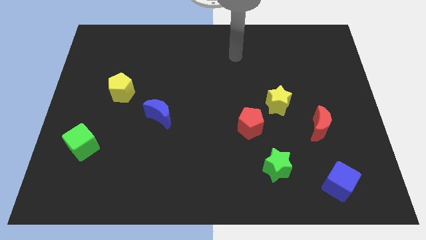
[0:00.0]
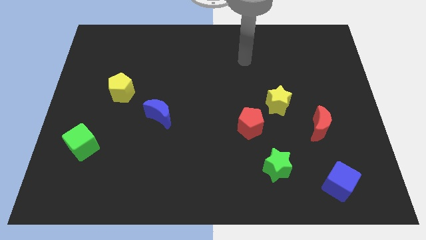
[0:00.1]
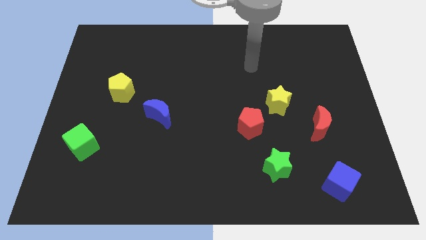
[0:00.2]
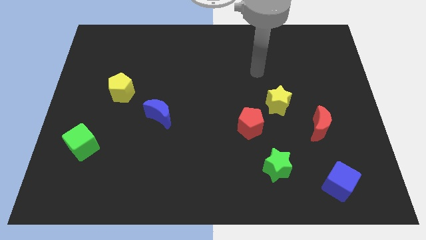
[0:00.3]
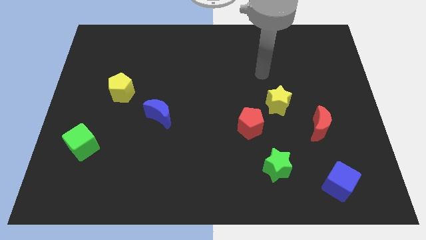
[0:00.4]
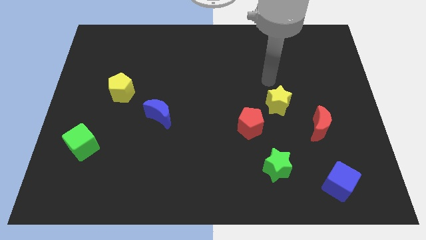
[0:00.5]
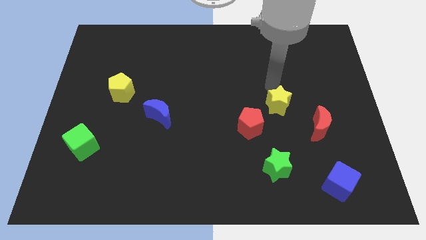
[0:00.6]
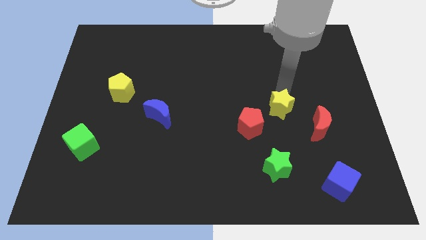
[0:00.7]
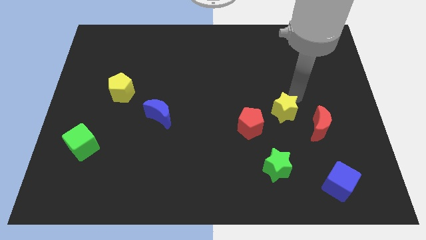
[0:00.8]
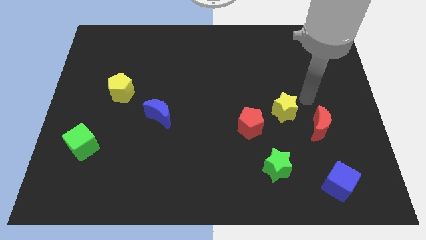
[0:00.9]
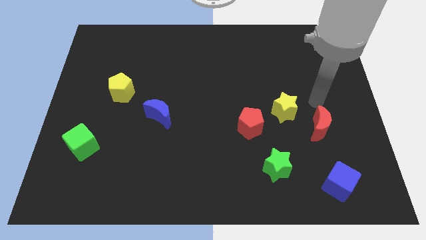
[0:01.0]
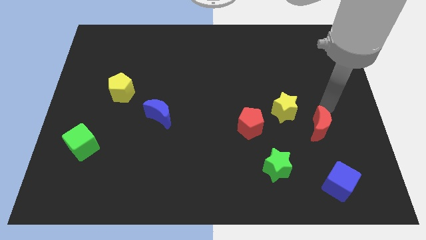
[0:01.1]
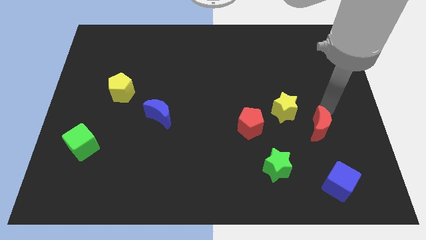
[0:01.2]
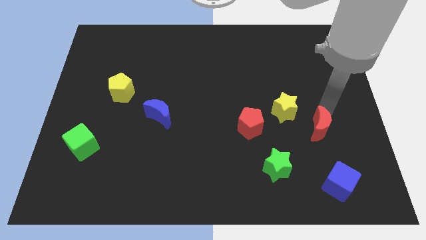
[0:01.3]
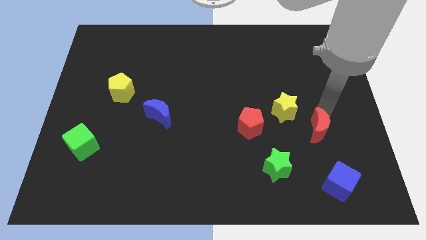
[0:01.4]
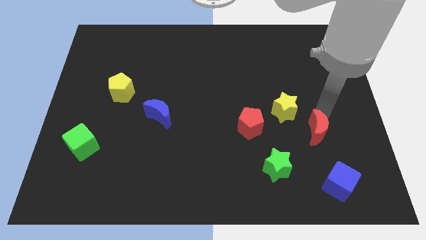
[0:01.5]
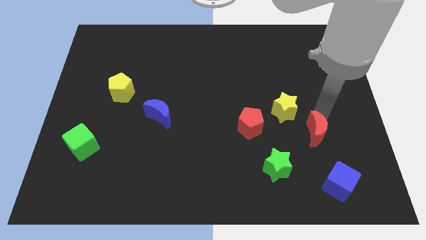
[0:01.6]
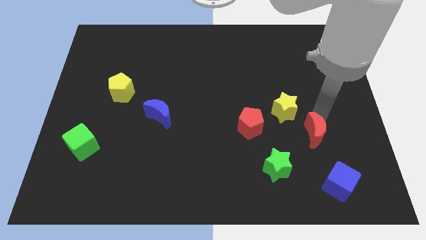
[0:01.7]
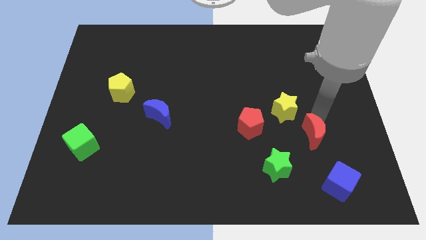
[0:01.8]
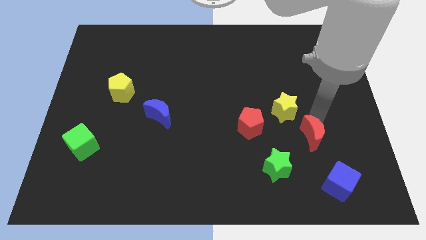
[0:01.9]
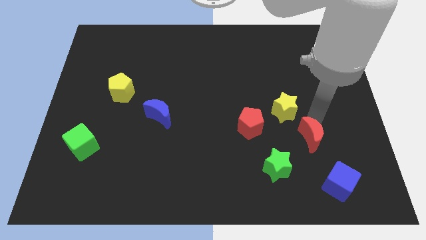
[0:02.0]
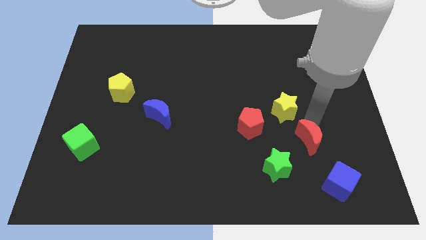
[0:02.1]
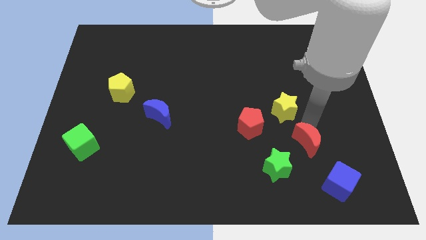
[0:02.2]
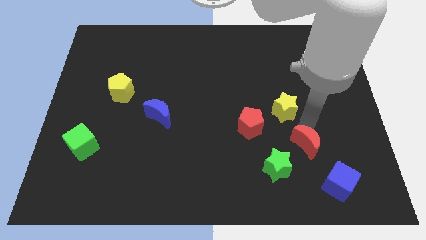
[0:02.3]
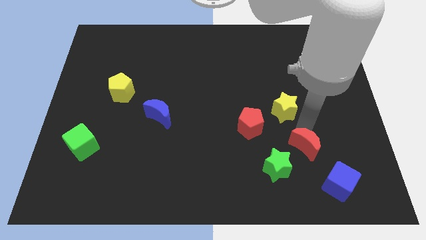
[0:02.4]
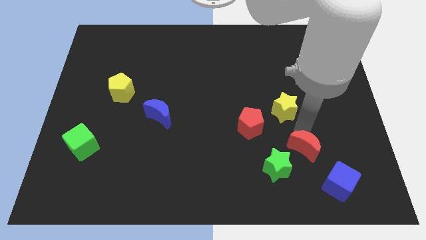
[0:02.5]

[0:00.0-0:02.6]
slightly slide the red moon downwards and to the left

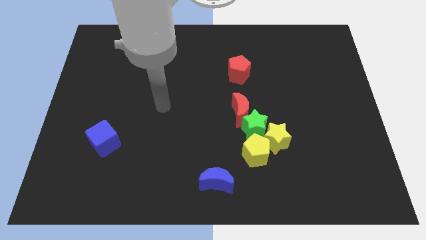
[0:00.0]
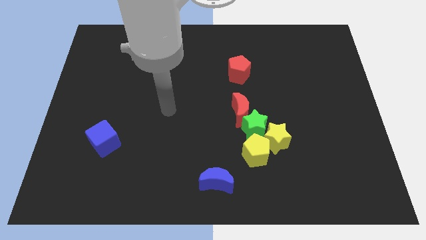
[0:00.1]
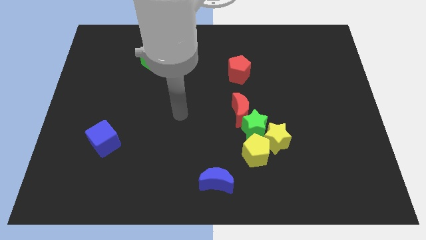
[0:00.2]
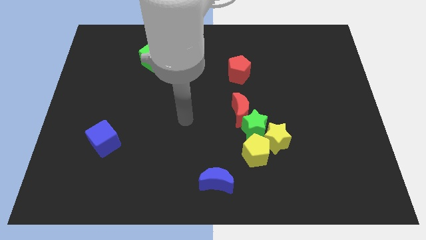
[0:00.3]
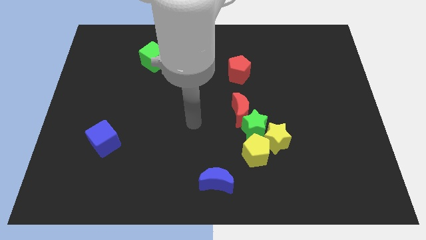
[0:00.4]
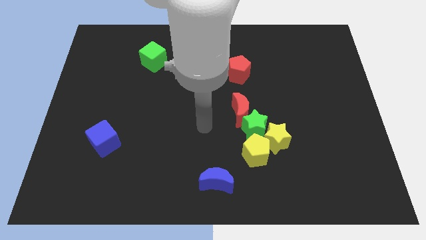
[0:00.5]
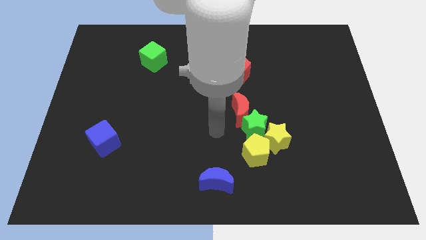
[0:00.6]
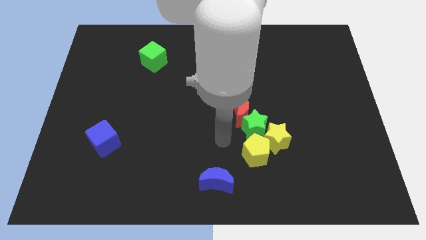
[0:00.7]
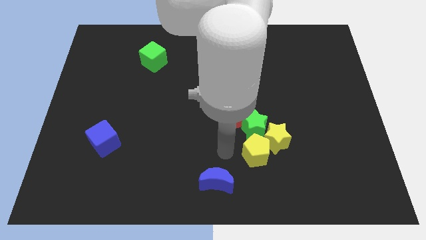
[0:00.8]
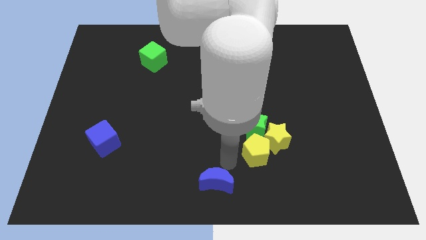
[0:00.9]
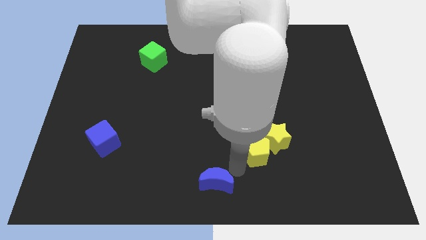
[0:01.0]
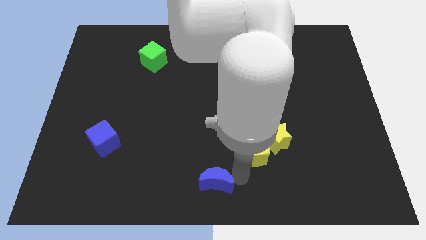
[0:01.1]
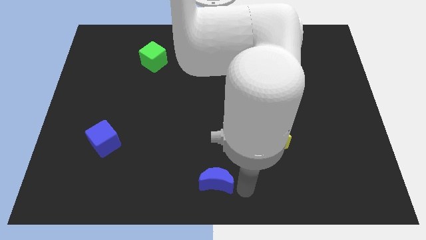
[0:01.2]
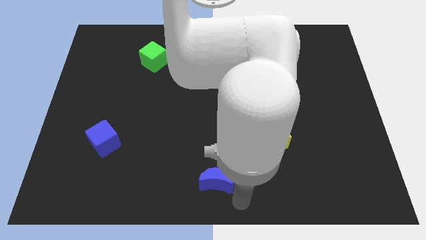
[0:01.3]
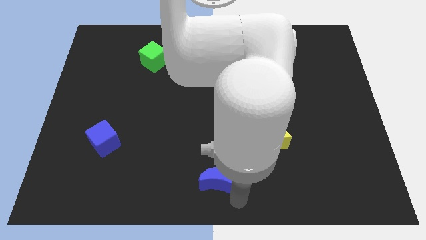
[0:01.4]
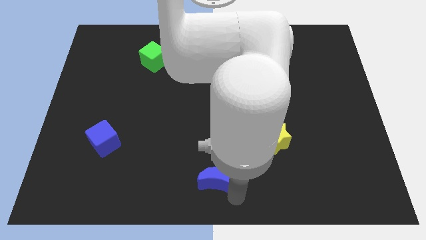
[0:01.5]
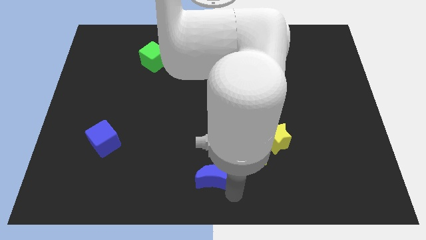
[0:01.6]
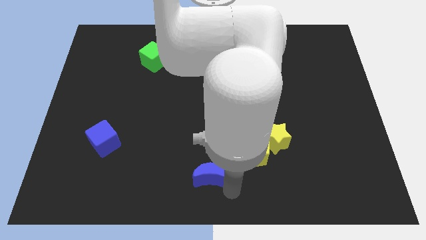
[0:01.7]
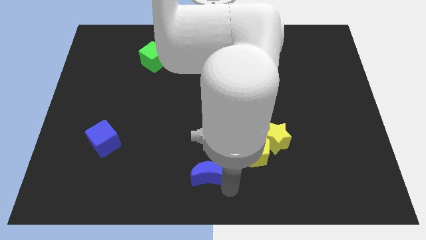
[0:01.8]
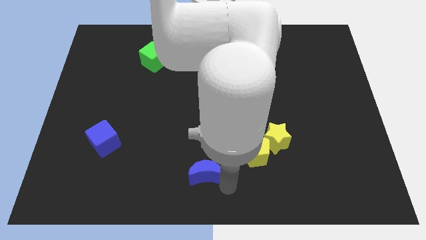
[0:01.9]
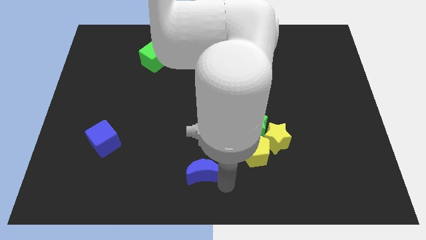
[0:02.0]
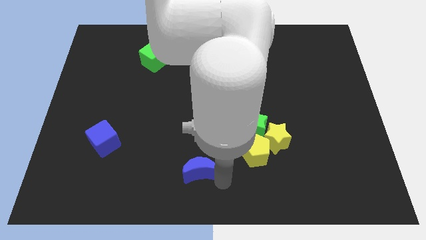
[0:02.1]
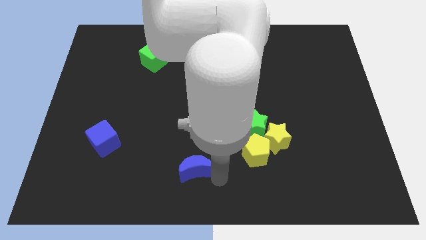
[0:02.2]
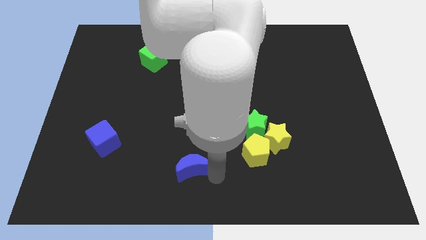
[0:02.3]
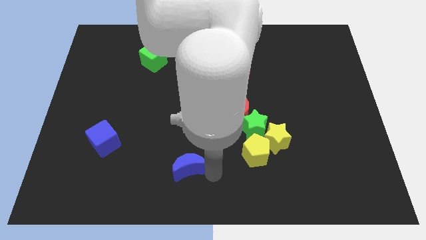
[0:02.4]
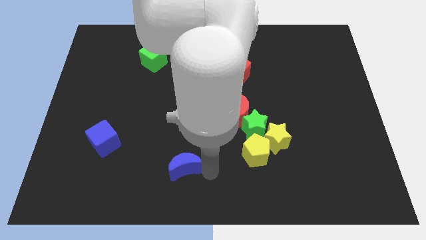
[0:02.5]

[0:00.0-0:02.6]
slightly slide the blue moon diagonally upwards and to the left

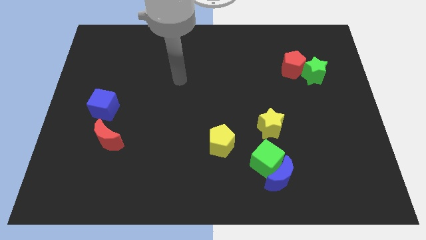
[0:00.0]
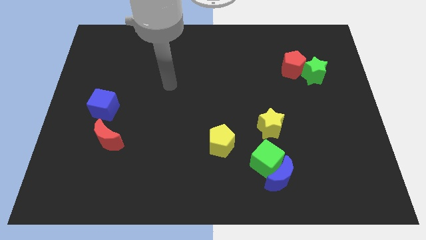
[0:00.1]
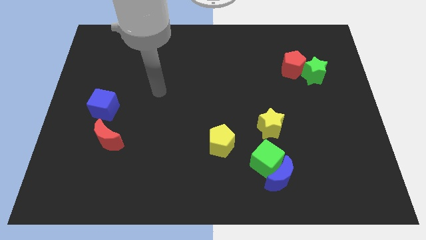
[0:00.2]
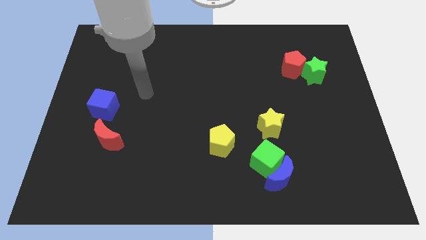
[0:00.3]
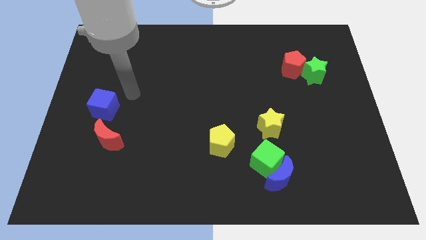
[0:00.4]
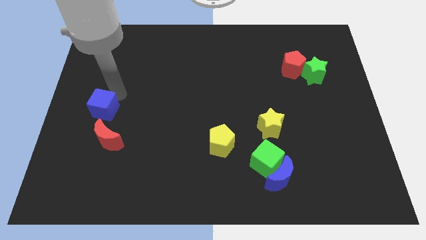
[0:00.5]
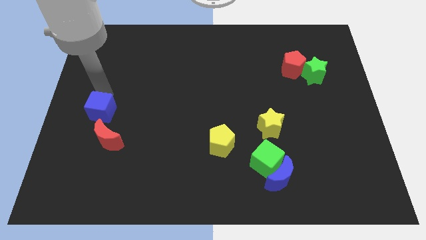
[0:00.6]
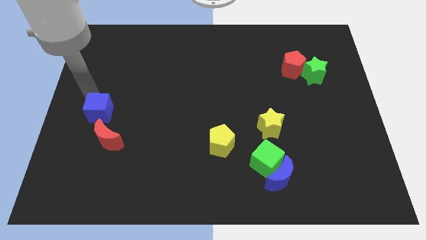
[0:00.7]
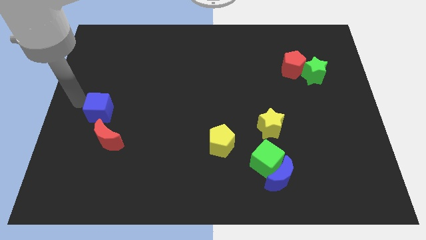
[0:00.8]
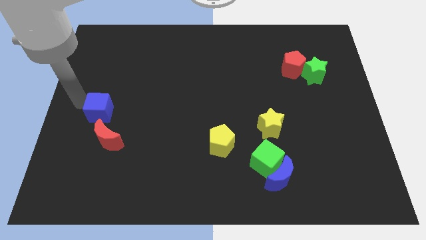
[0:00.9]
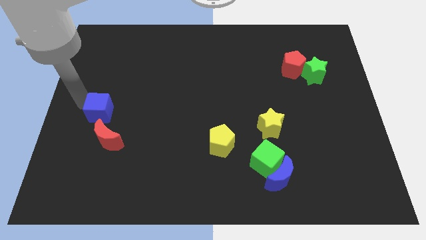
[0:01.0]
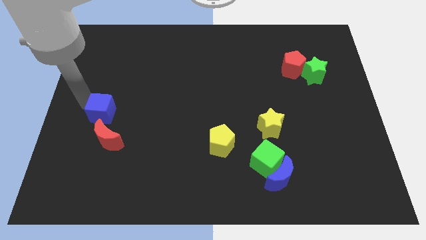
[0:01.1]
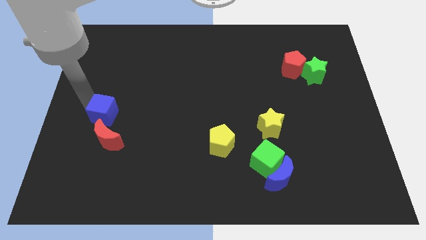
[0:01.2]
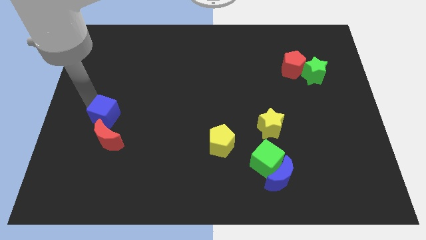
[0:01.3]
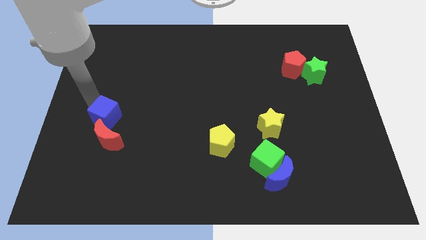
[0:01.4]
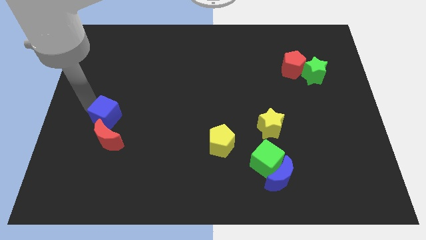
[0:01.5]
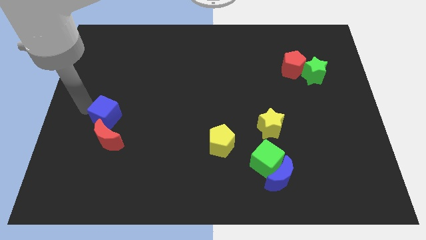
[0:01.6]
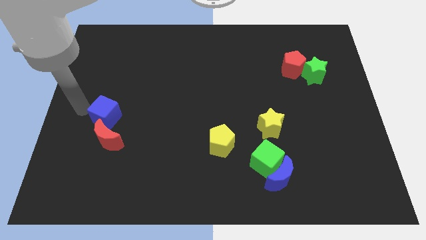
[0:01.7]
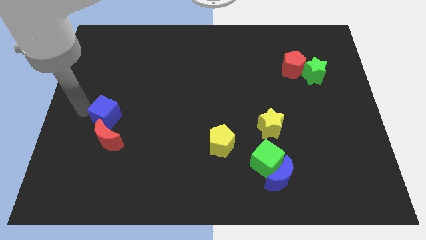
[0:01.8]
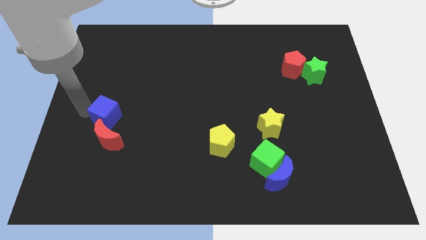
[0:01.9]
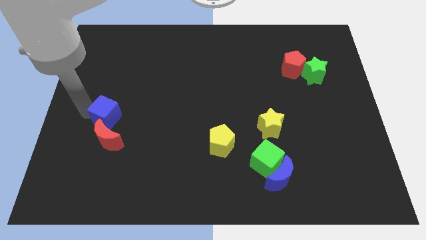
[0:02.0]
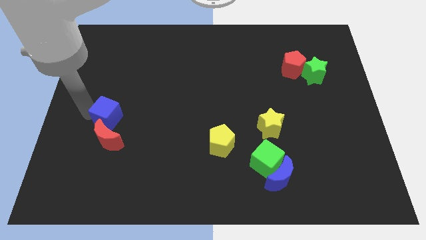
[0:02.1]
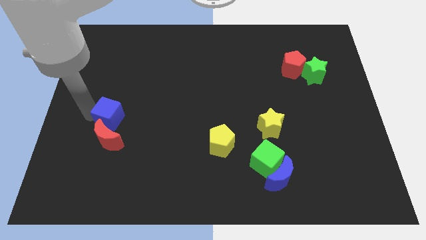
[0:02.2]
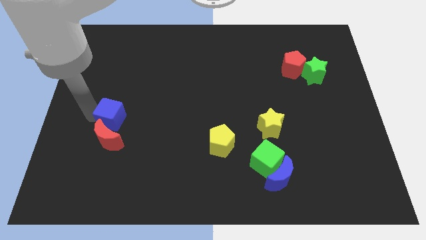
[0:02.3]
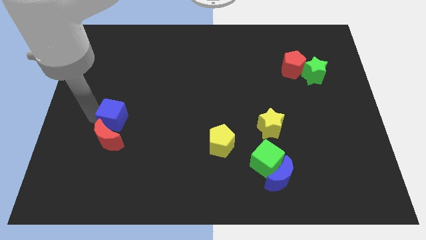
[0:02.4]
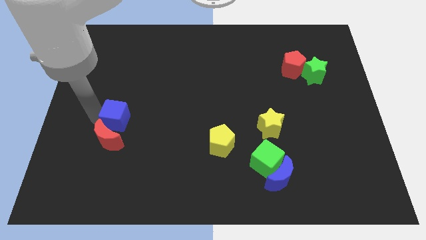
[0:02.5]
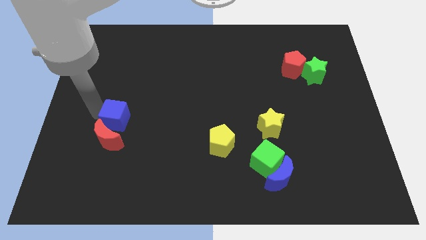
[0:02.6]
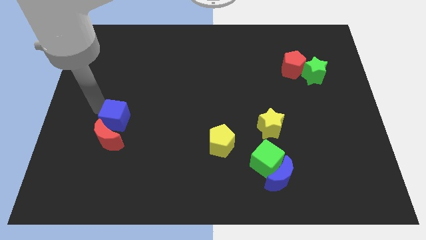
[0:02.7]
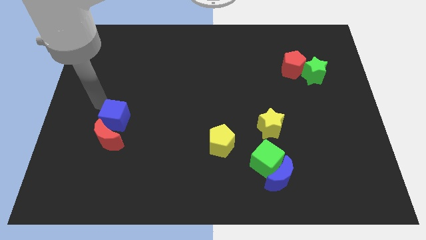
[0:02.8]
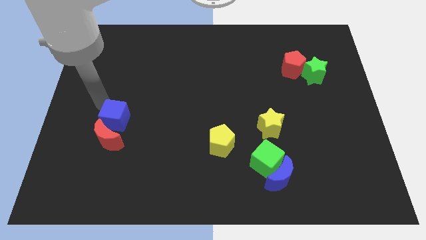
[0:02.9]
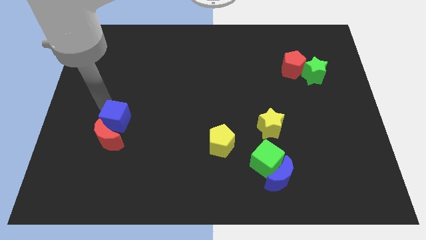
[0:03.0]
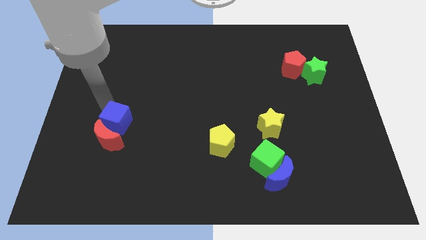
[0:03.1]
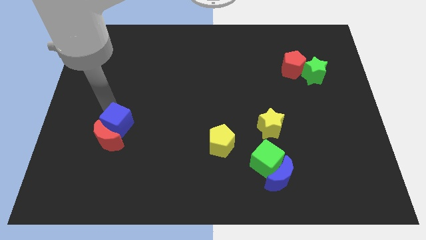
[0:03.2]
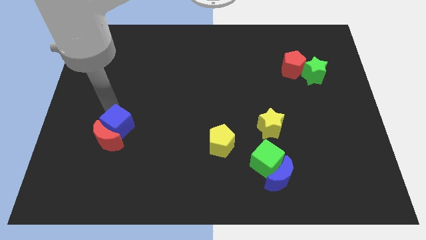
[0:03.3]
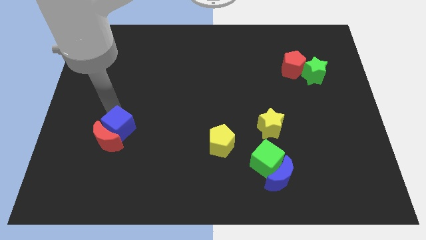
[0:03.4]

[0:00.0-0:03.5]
slightly push the blue cube downwards and right
